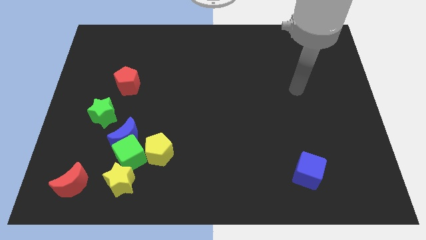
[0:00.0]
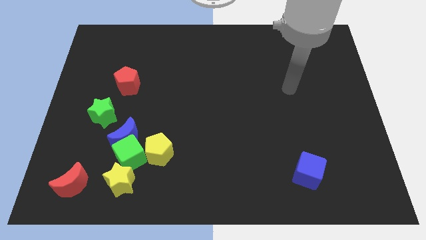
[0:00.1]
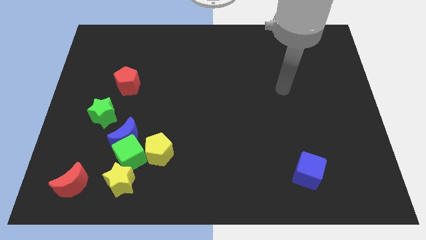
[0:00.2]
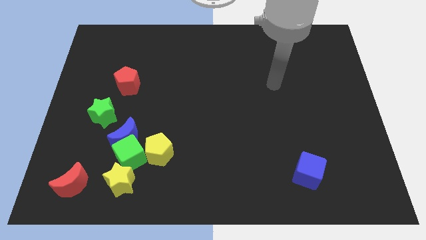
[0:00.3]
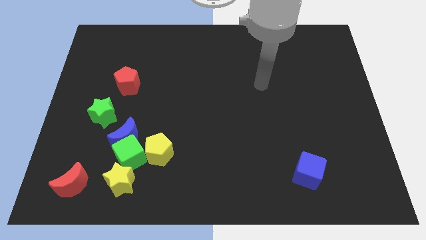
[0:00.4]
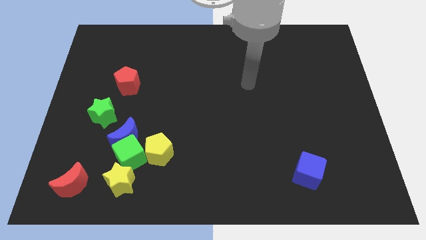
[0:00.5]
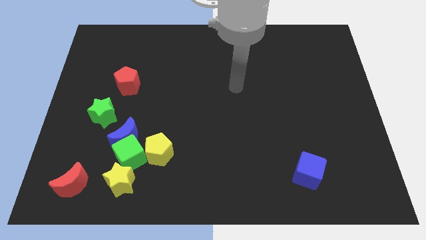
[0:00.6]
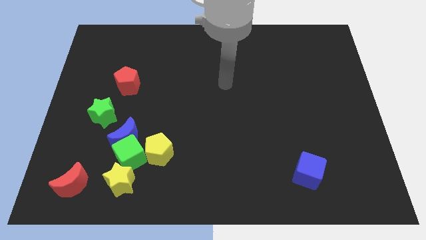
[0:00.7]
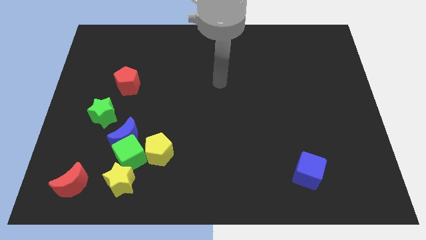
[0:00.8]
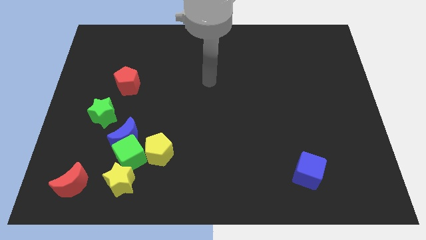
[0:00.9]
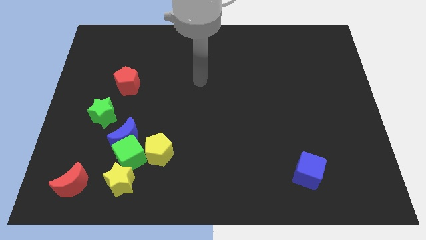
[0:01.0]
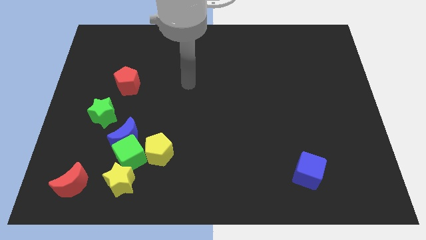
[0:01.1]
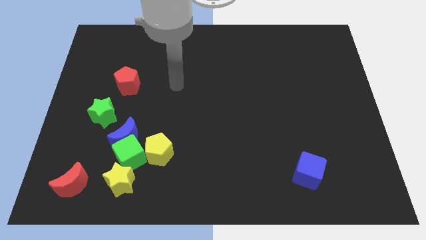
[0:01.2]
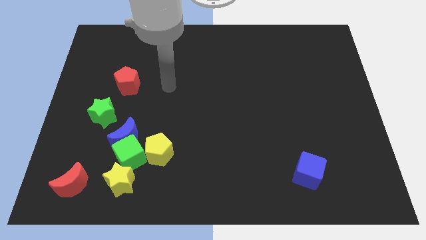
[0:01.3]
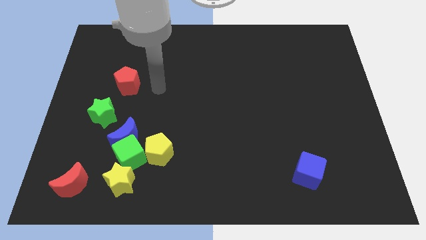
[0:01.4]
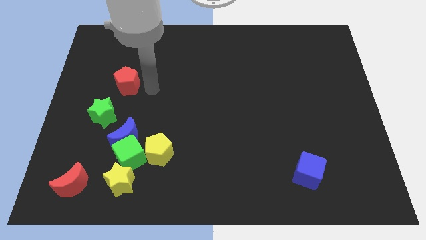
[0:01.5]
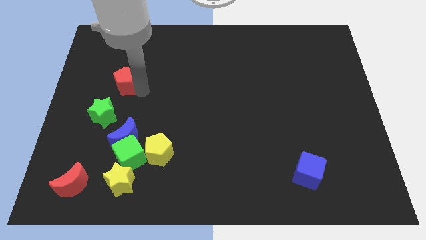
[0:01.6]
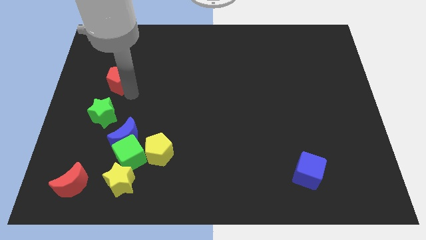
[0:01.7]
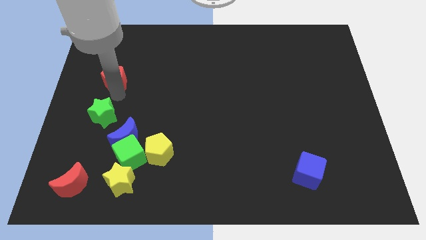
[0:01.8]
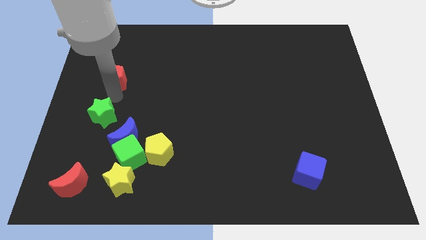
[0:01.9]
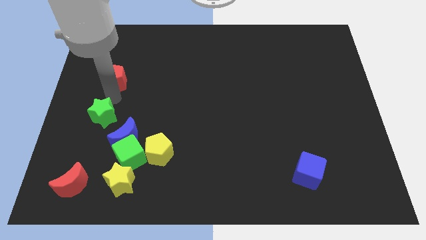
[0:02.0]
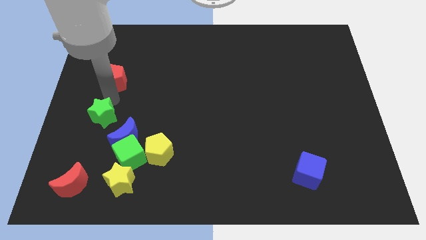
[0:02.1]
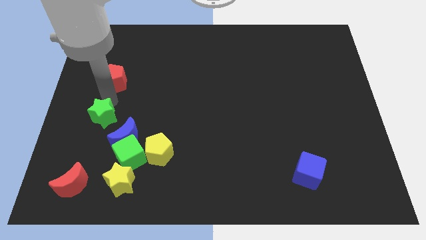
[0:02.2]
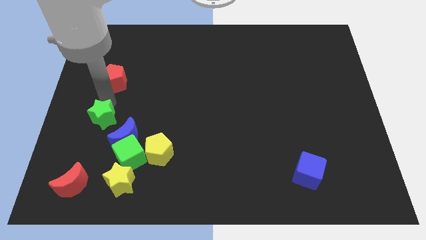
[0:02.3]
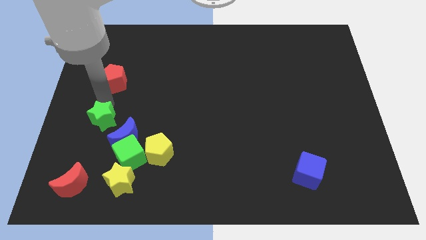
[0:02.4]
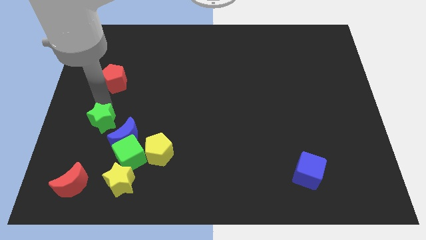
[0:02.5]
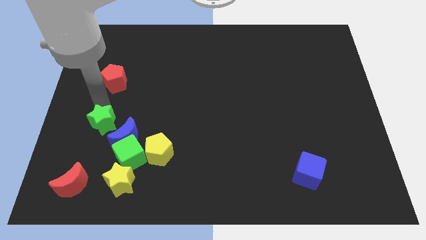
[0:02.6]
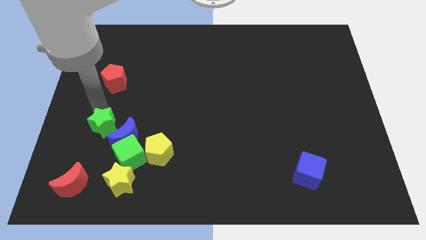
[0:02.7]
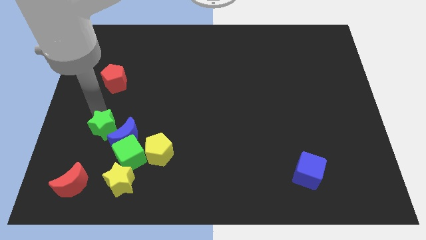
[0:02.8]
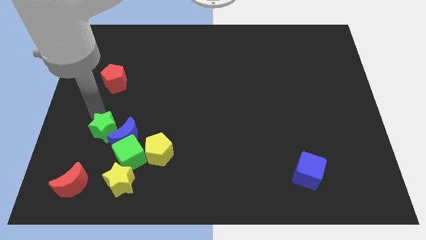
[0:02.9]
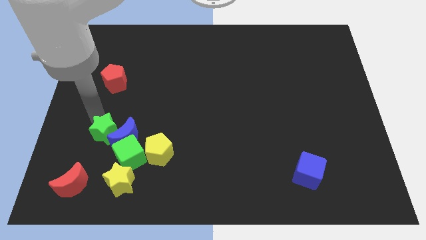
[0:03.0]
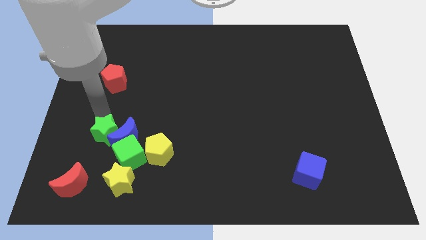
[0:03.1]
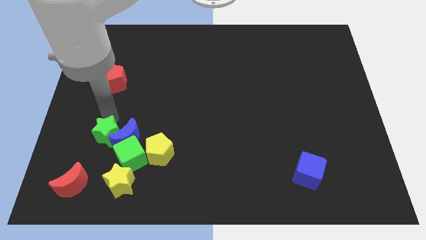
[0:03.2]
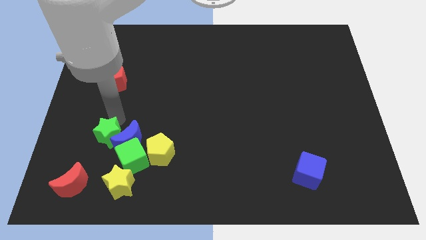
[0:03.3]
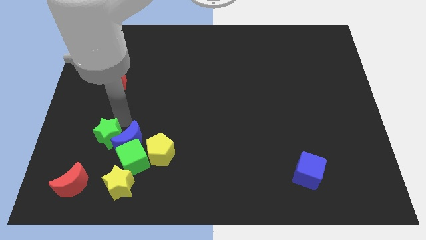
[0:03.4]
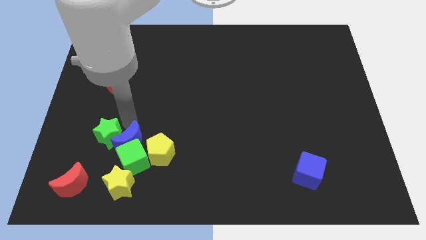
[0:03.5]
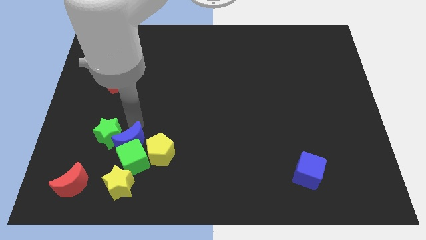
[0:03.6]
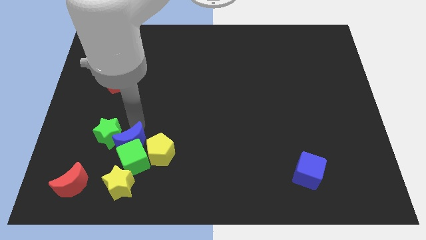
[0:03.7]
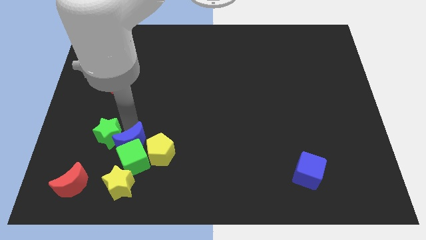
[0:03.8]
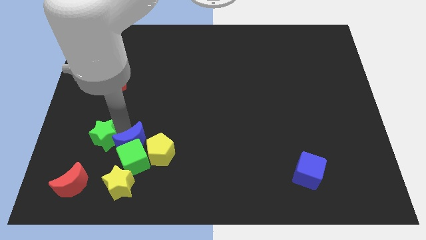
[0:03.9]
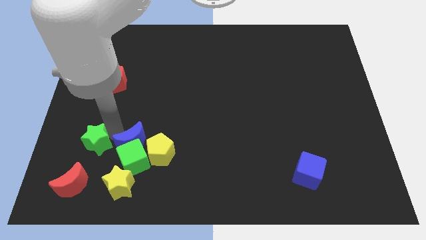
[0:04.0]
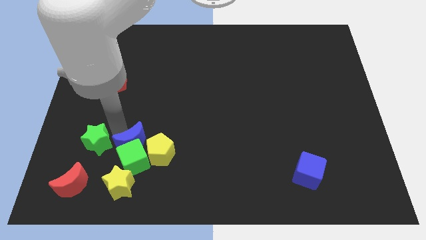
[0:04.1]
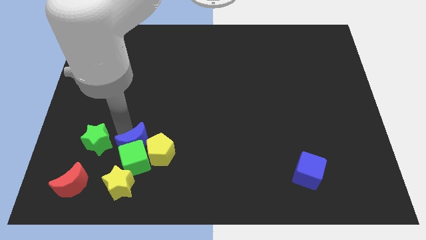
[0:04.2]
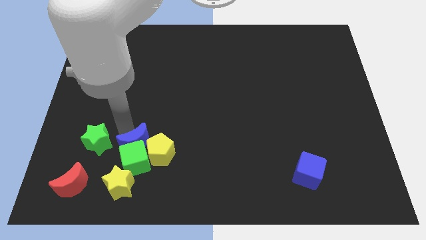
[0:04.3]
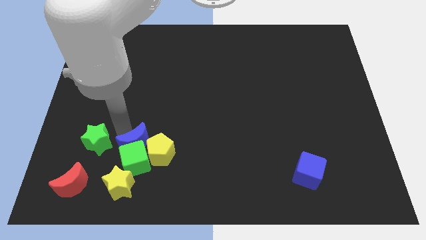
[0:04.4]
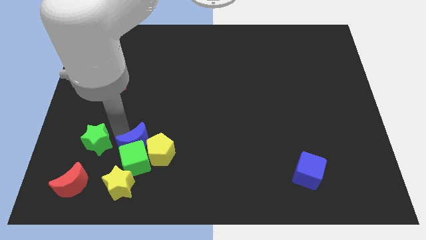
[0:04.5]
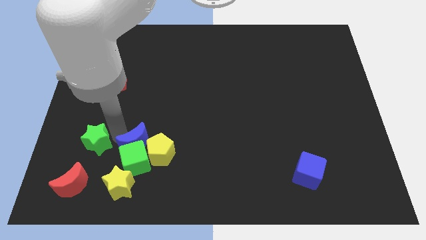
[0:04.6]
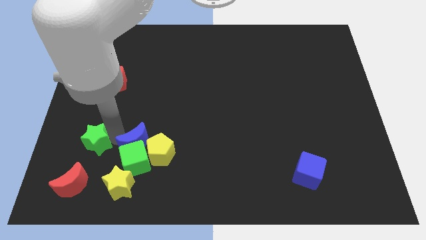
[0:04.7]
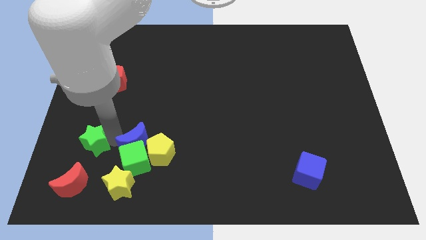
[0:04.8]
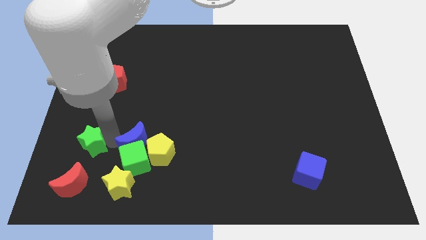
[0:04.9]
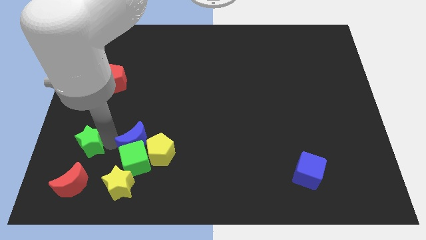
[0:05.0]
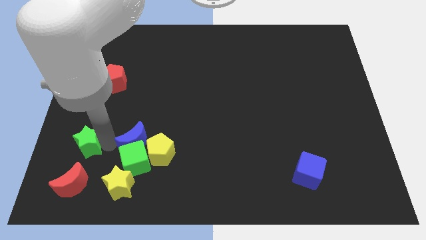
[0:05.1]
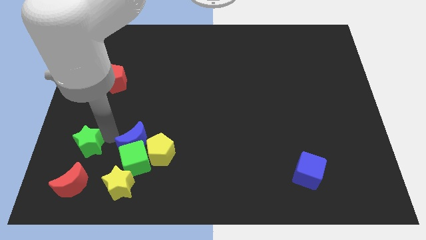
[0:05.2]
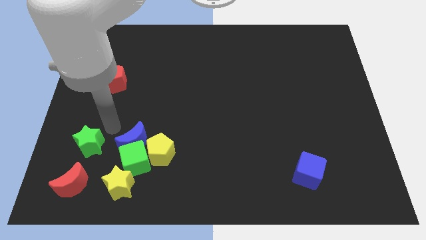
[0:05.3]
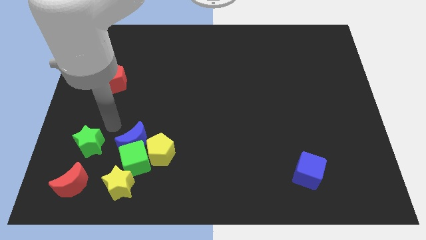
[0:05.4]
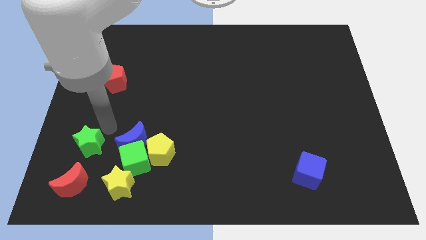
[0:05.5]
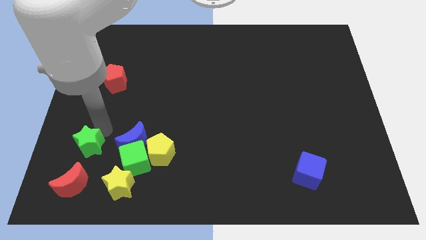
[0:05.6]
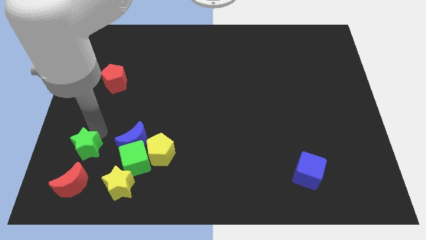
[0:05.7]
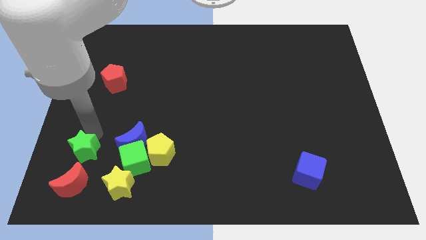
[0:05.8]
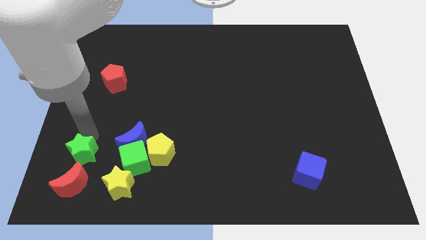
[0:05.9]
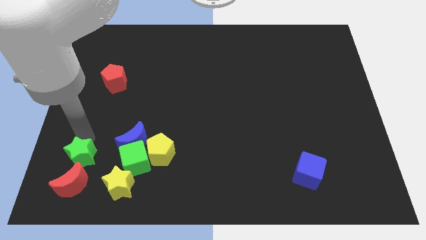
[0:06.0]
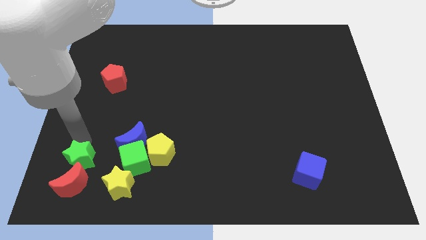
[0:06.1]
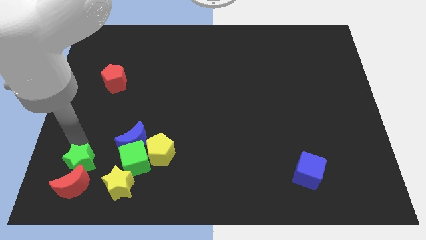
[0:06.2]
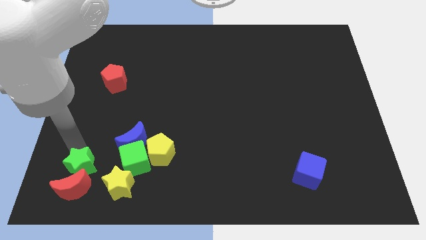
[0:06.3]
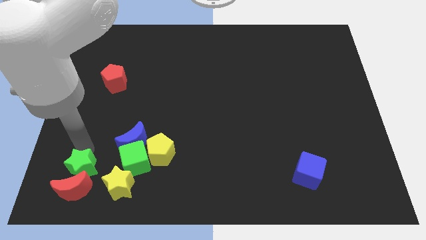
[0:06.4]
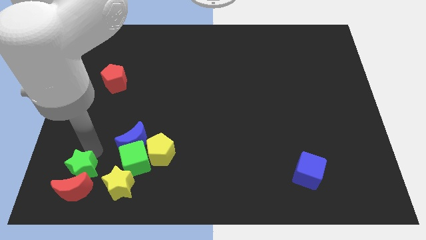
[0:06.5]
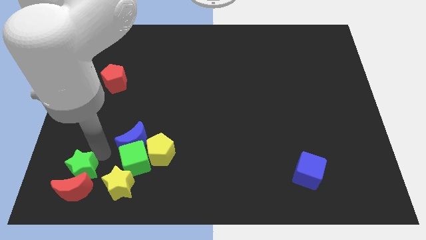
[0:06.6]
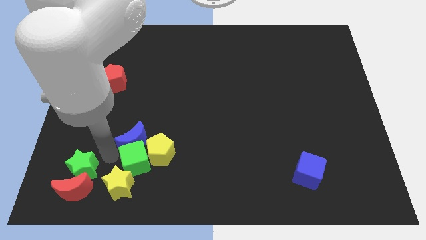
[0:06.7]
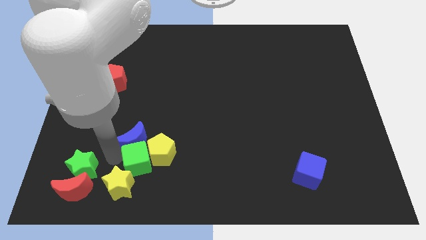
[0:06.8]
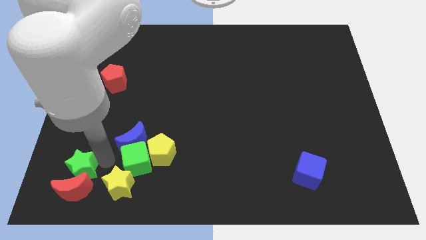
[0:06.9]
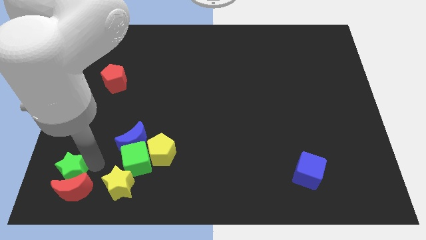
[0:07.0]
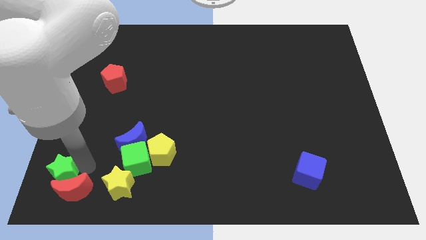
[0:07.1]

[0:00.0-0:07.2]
put the green star to the bottom left
